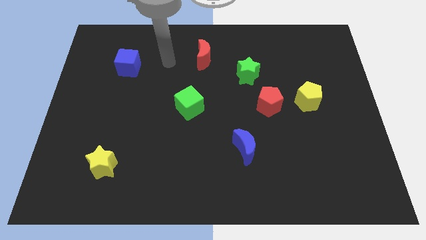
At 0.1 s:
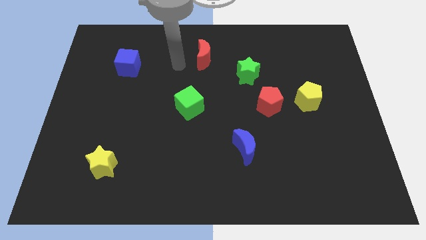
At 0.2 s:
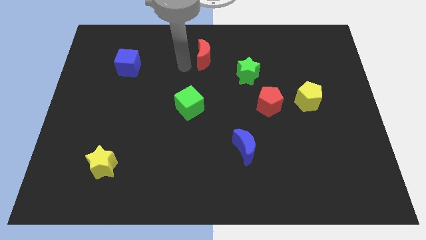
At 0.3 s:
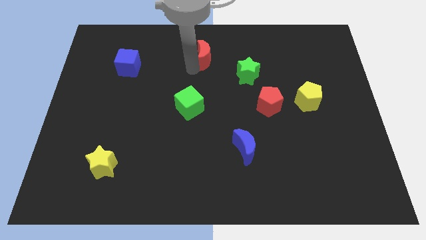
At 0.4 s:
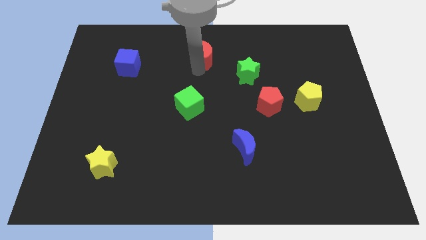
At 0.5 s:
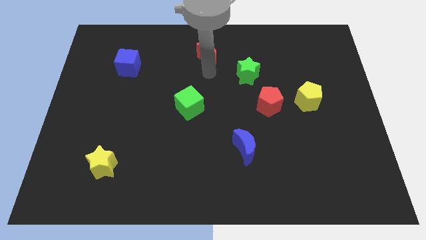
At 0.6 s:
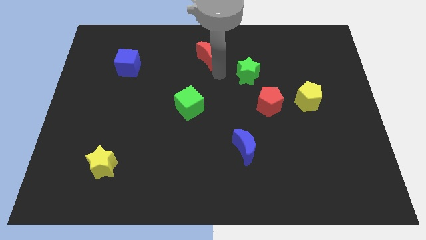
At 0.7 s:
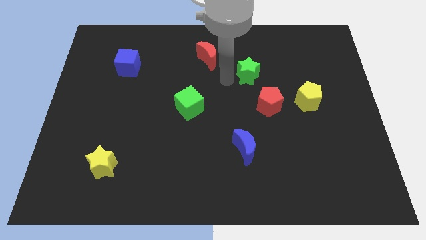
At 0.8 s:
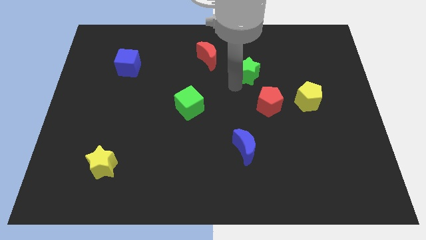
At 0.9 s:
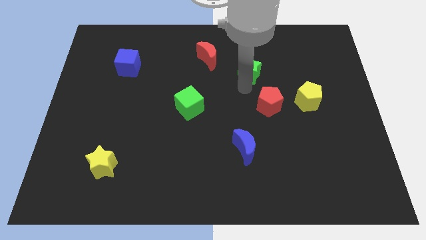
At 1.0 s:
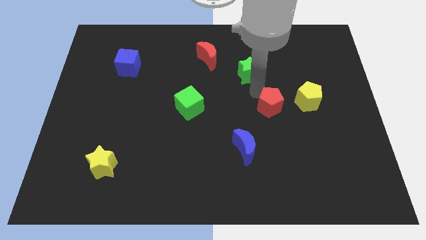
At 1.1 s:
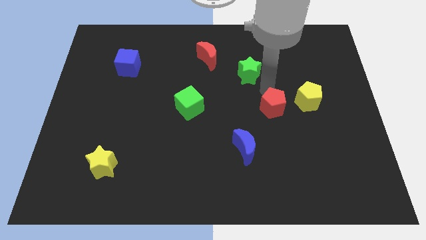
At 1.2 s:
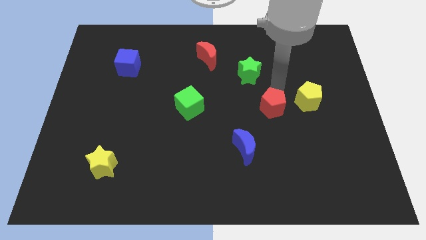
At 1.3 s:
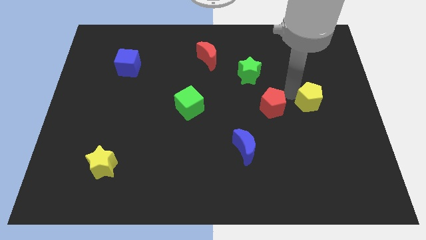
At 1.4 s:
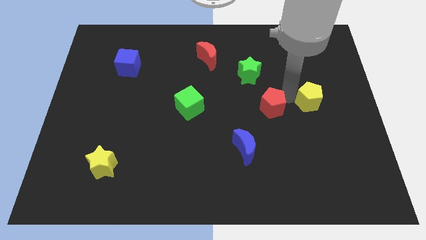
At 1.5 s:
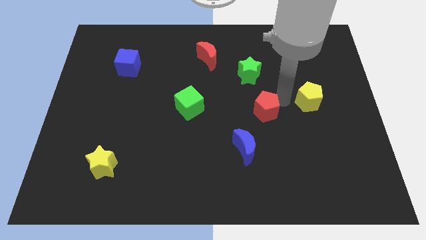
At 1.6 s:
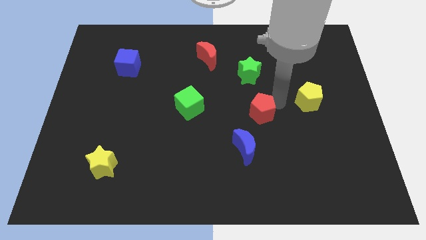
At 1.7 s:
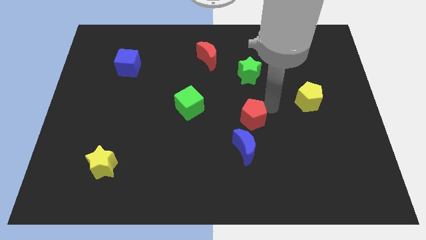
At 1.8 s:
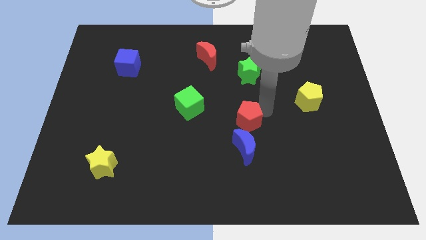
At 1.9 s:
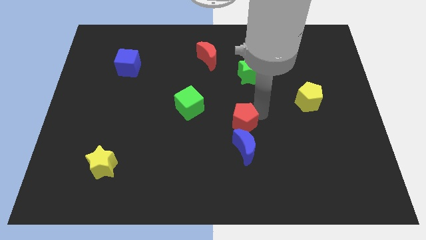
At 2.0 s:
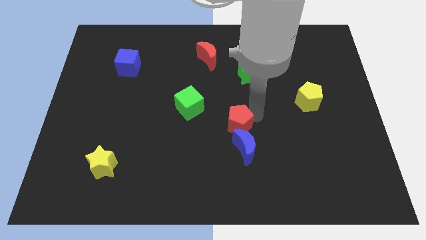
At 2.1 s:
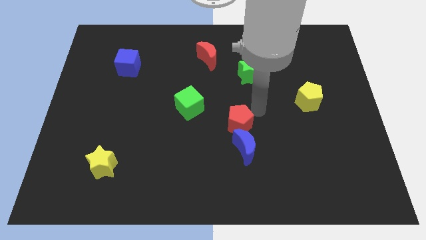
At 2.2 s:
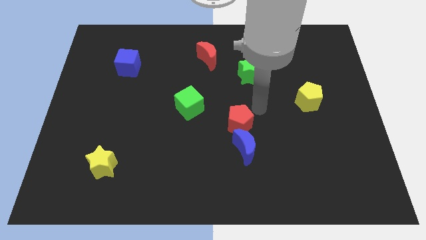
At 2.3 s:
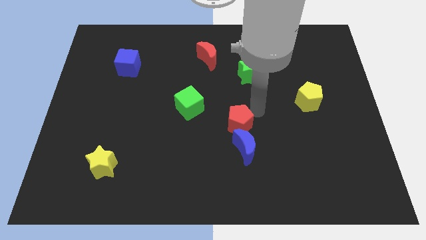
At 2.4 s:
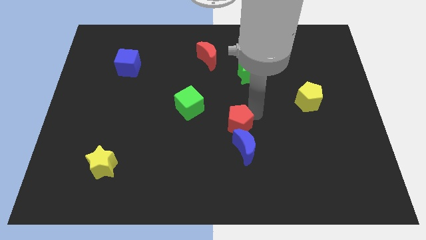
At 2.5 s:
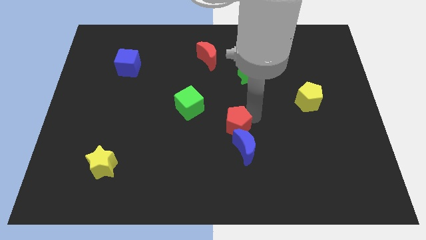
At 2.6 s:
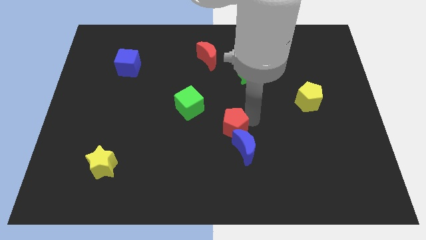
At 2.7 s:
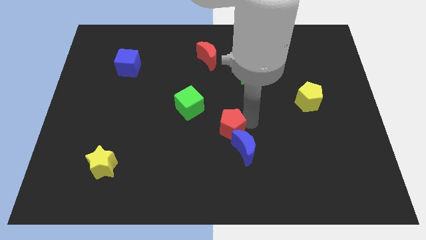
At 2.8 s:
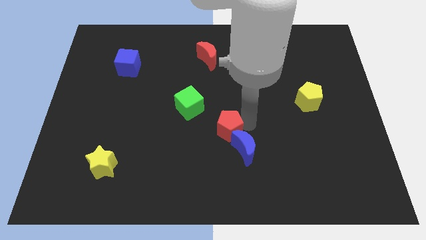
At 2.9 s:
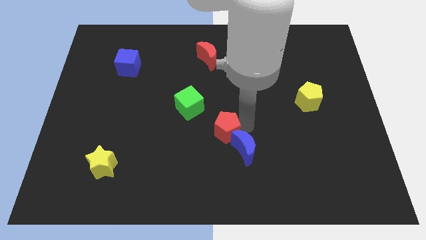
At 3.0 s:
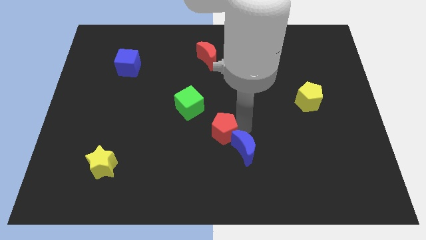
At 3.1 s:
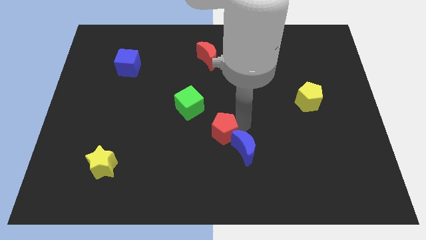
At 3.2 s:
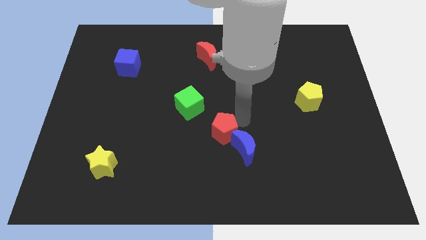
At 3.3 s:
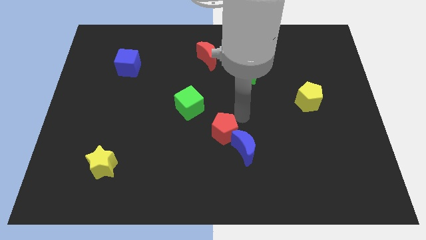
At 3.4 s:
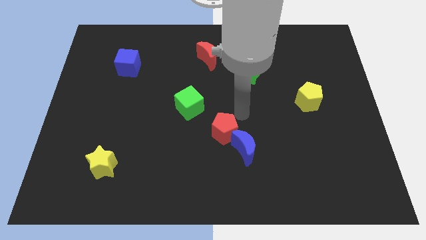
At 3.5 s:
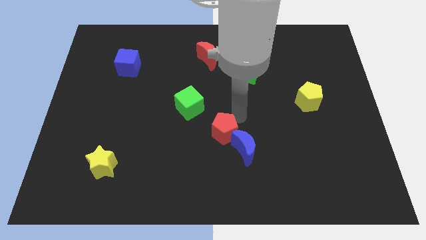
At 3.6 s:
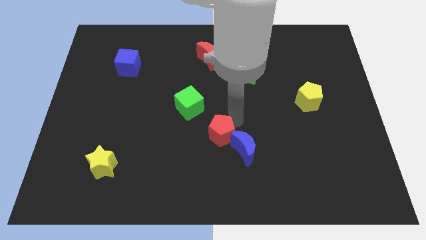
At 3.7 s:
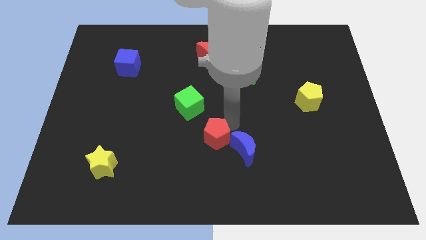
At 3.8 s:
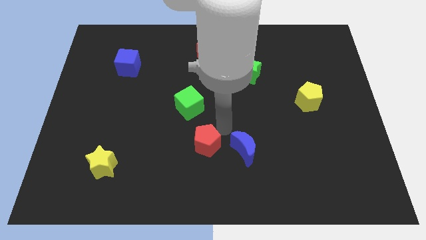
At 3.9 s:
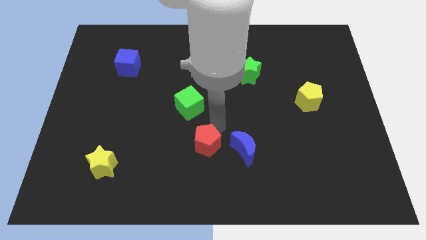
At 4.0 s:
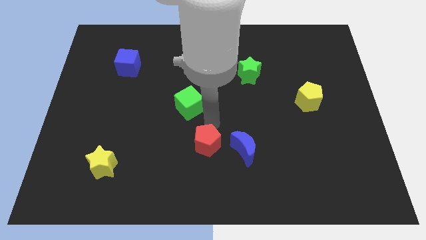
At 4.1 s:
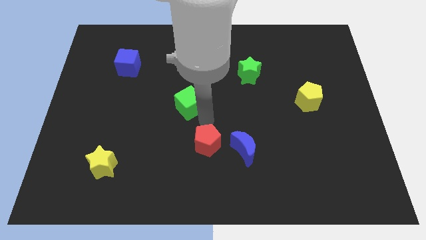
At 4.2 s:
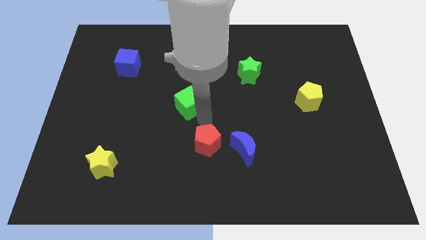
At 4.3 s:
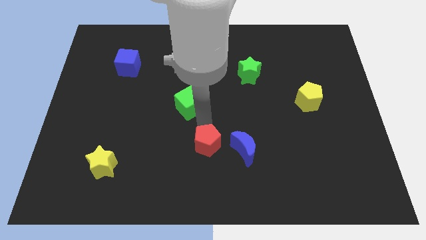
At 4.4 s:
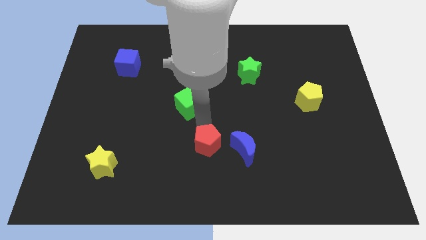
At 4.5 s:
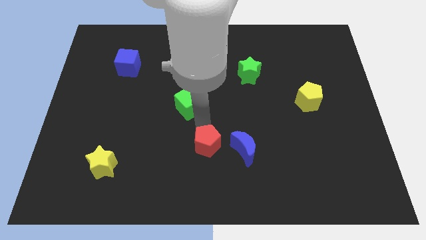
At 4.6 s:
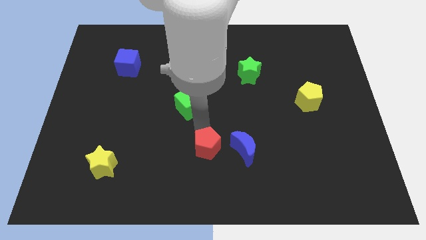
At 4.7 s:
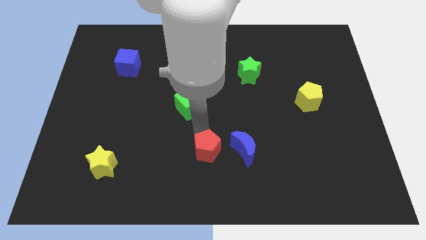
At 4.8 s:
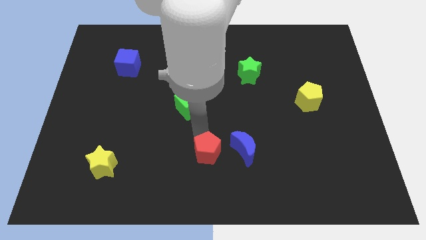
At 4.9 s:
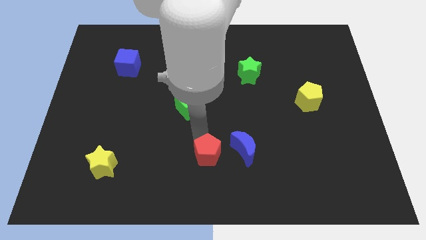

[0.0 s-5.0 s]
put the red pentagon to the bottom side

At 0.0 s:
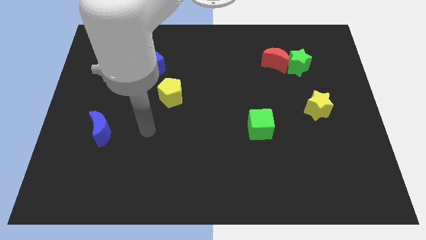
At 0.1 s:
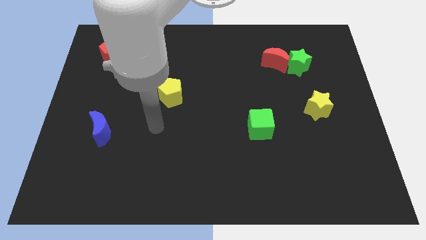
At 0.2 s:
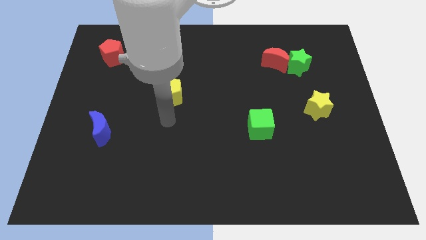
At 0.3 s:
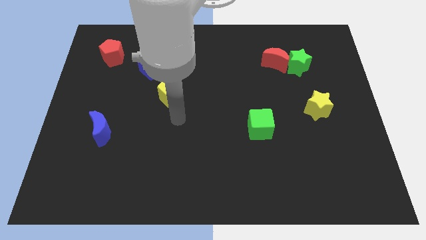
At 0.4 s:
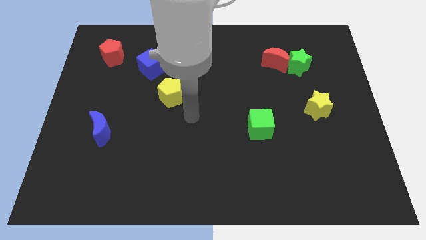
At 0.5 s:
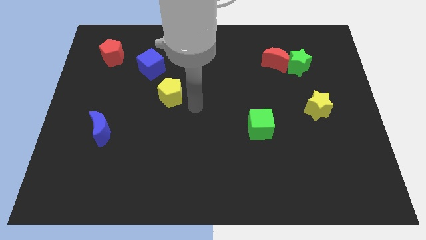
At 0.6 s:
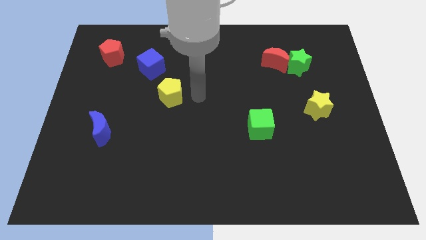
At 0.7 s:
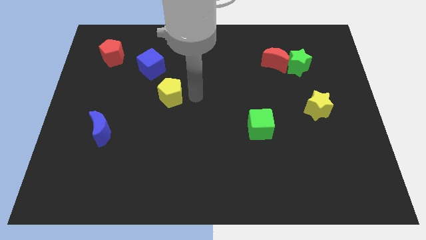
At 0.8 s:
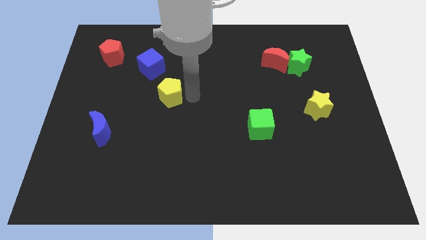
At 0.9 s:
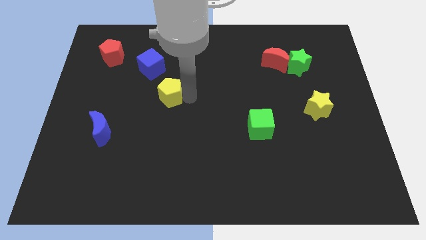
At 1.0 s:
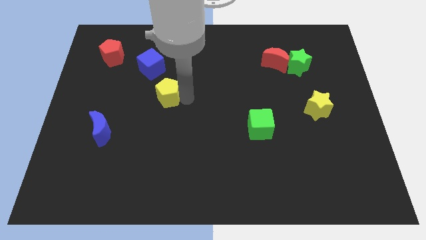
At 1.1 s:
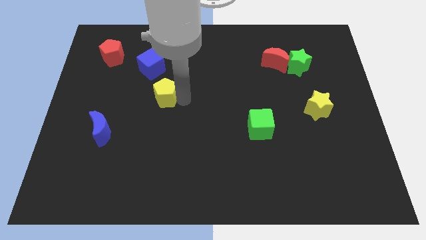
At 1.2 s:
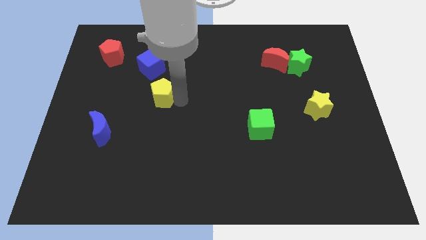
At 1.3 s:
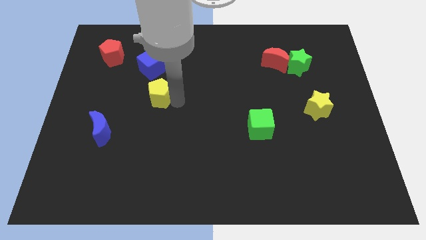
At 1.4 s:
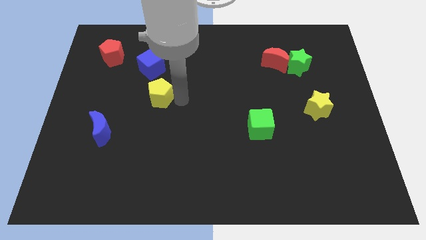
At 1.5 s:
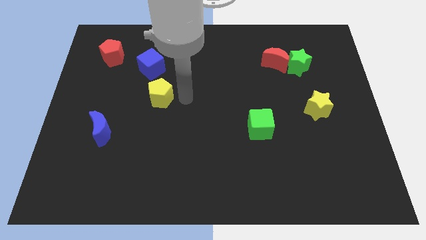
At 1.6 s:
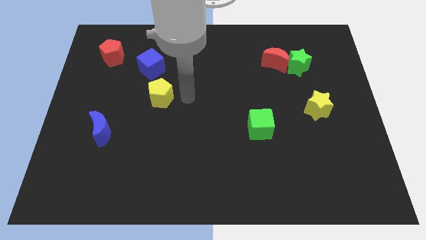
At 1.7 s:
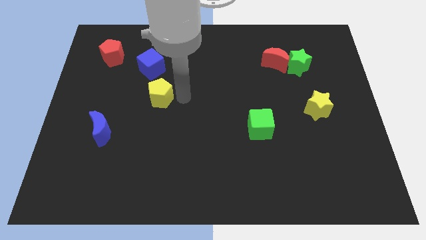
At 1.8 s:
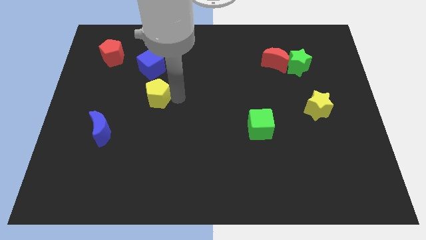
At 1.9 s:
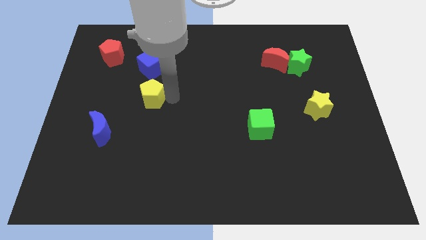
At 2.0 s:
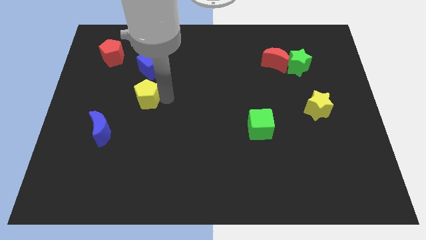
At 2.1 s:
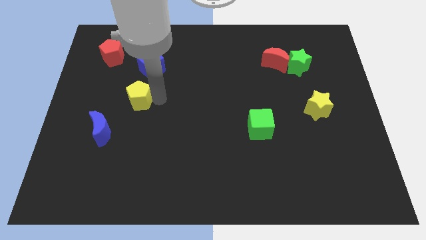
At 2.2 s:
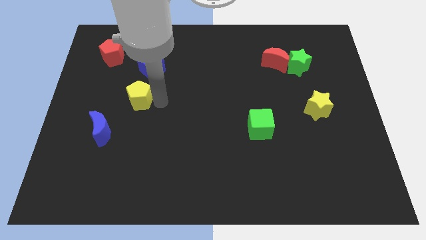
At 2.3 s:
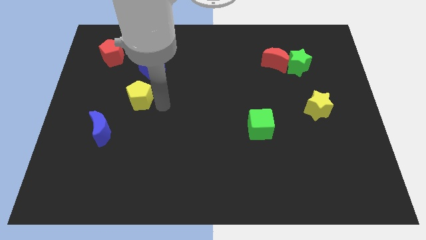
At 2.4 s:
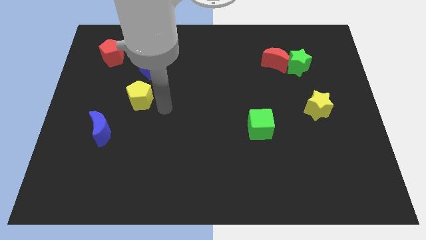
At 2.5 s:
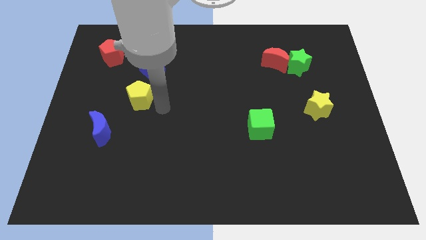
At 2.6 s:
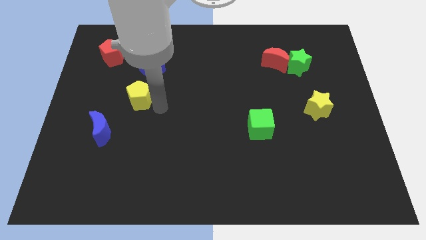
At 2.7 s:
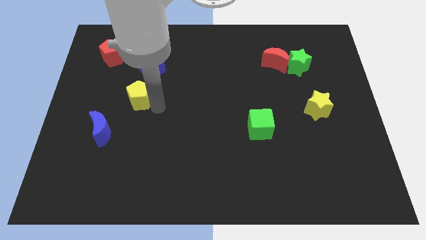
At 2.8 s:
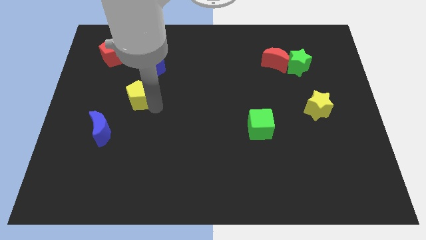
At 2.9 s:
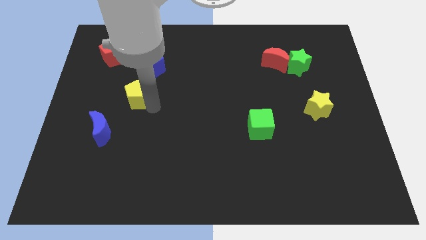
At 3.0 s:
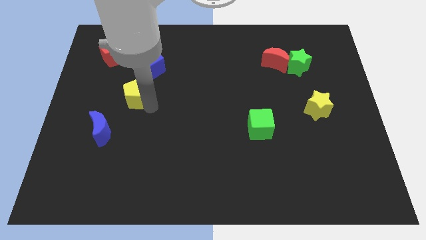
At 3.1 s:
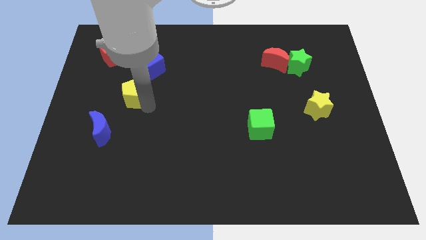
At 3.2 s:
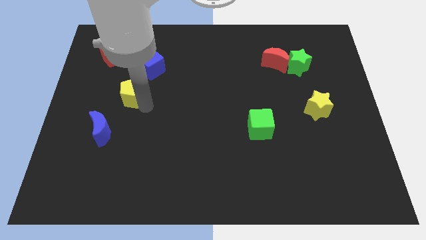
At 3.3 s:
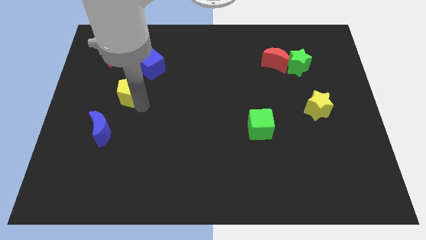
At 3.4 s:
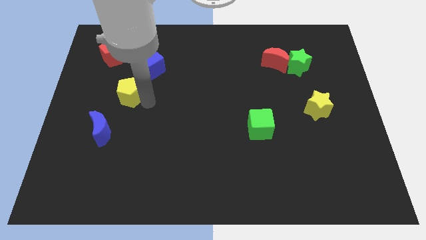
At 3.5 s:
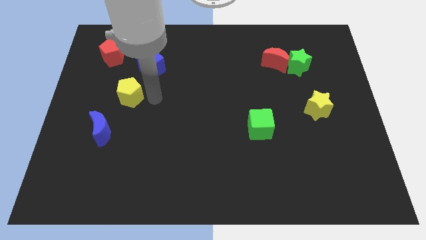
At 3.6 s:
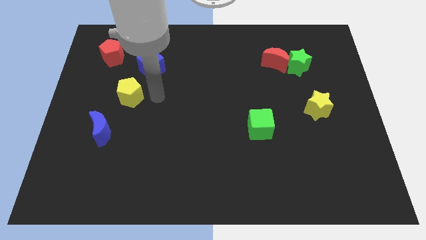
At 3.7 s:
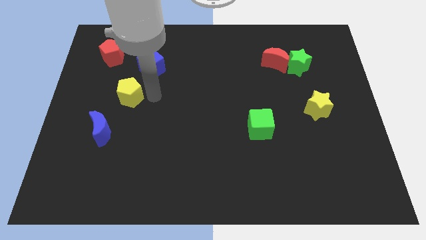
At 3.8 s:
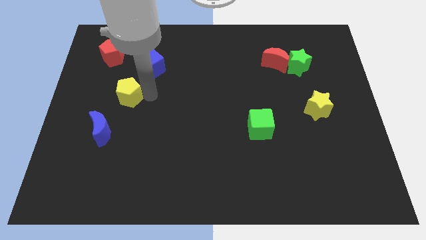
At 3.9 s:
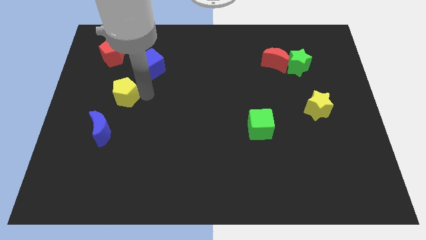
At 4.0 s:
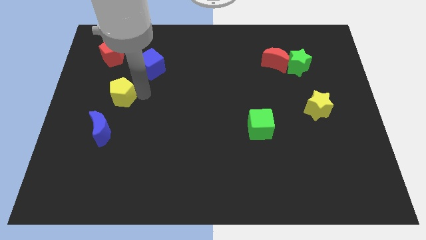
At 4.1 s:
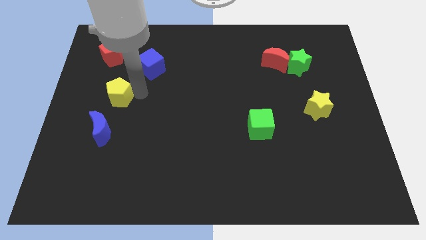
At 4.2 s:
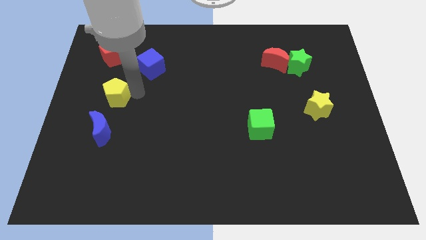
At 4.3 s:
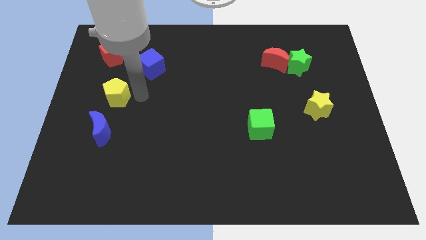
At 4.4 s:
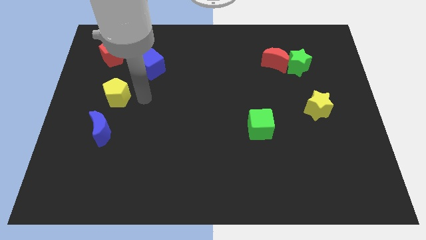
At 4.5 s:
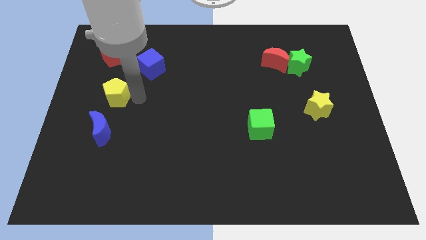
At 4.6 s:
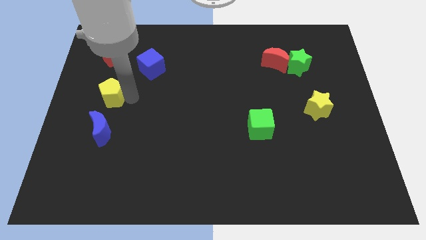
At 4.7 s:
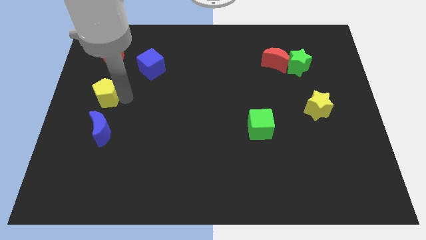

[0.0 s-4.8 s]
move the yellow pentagon to the center left
